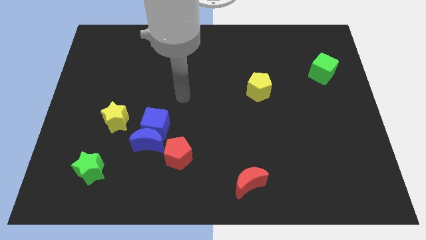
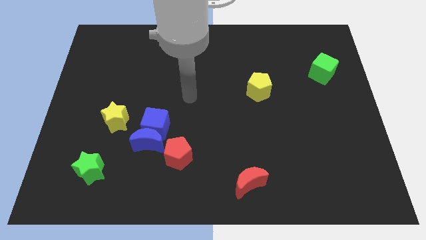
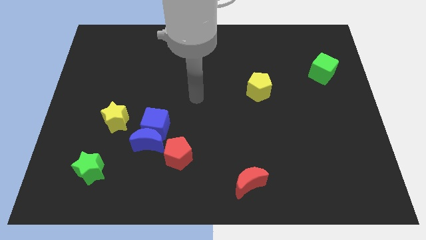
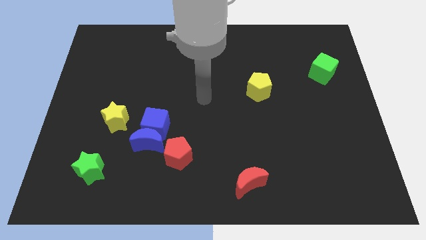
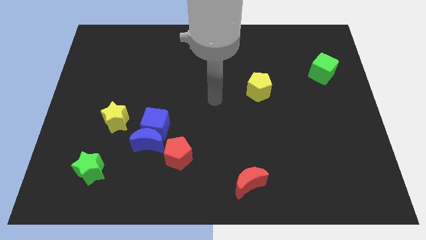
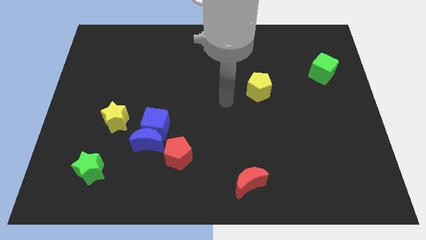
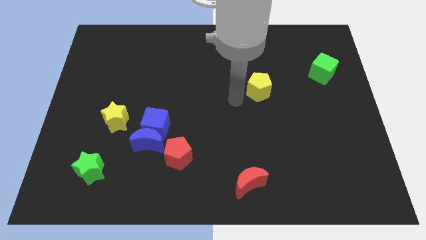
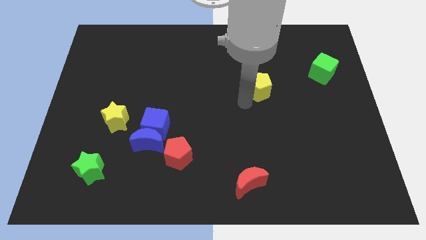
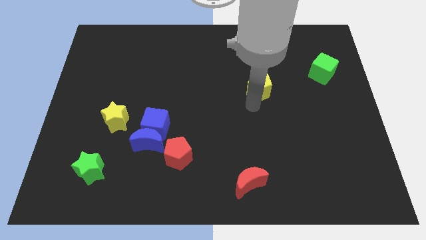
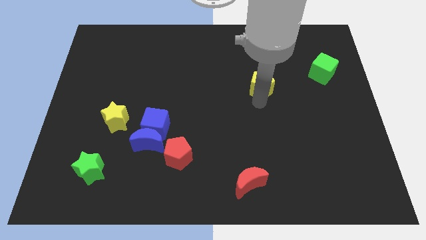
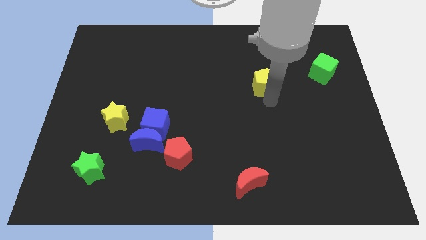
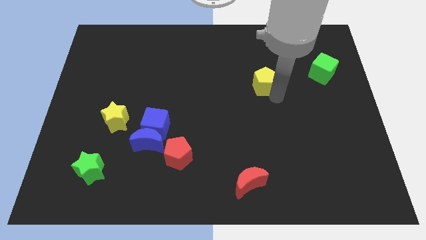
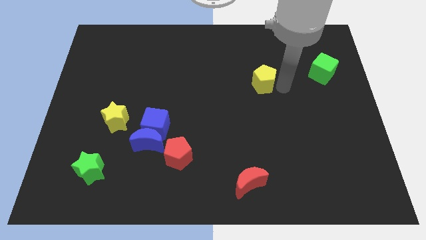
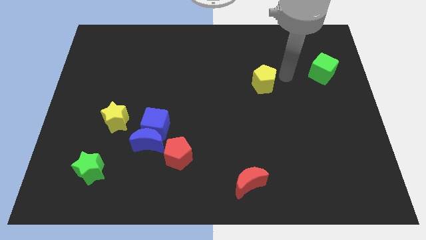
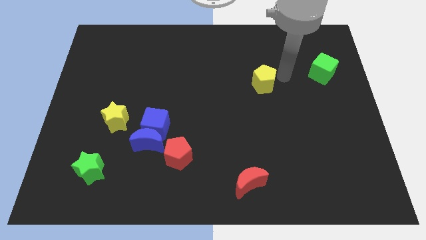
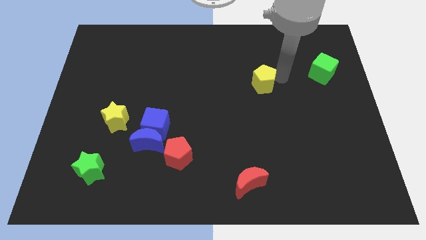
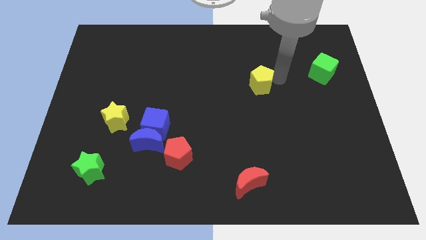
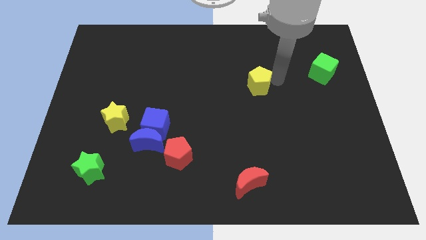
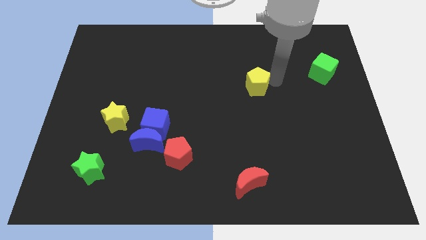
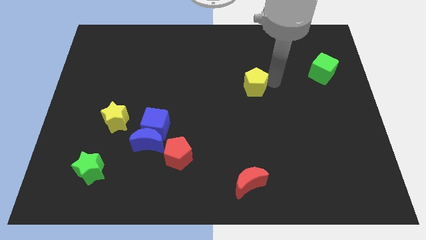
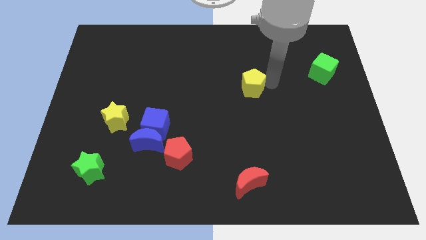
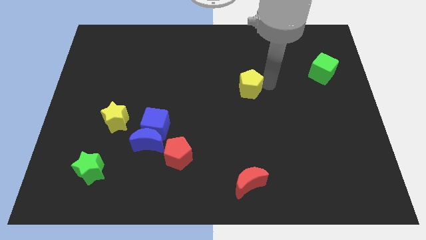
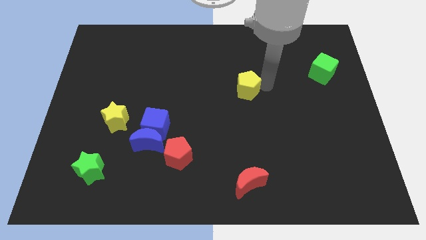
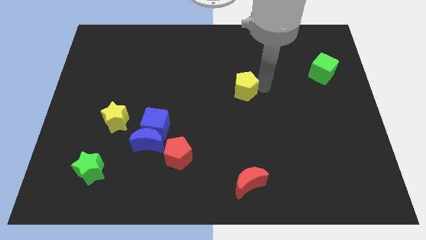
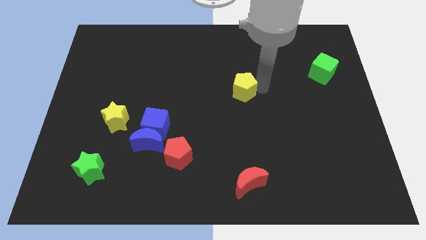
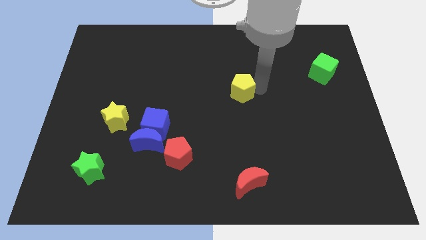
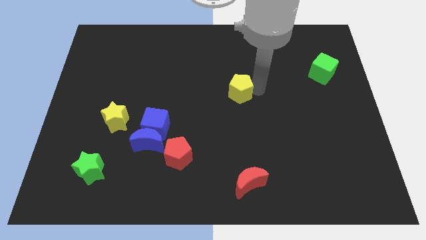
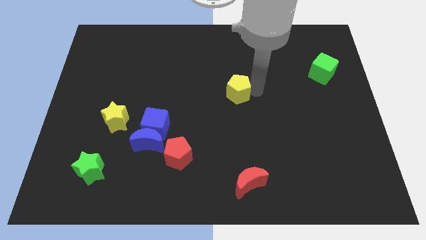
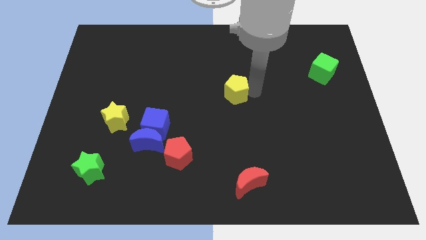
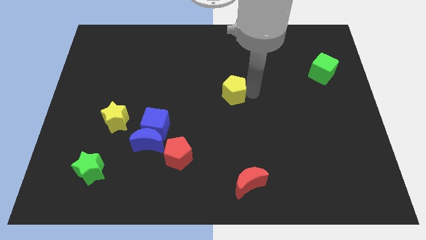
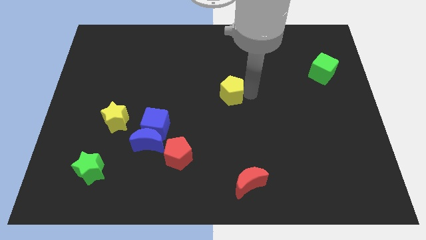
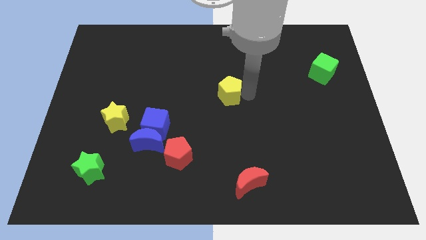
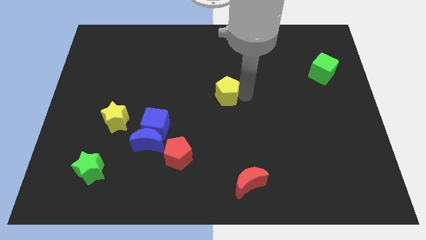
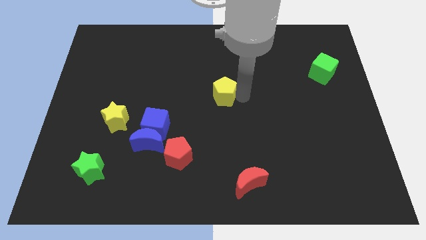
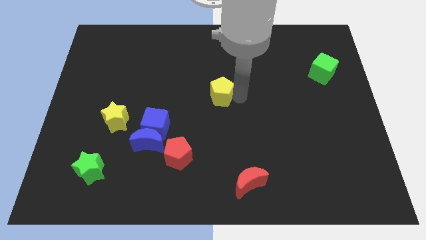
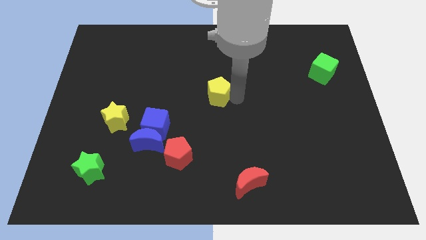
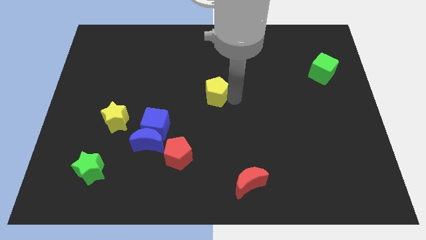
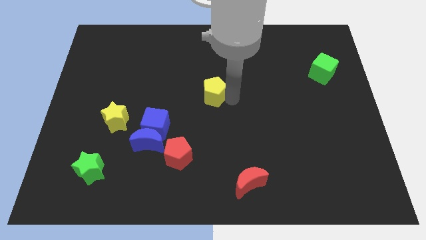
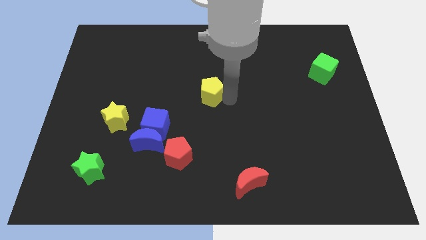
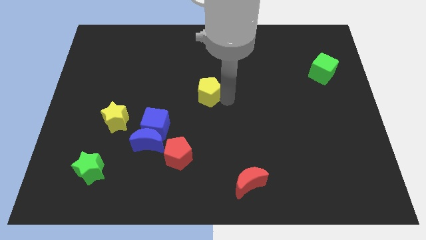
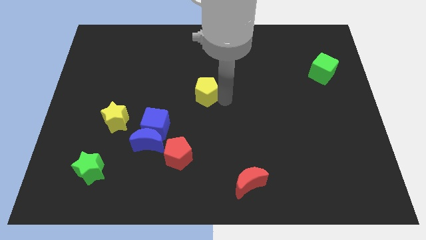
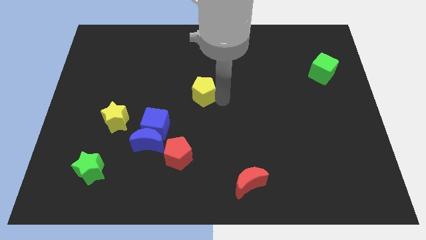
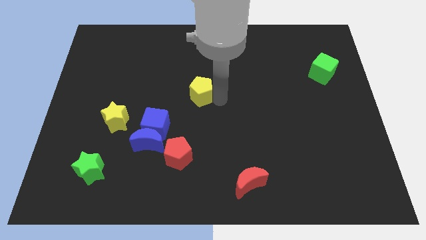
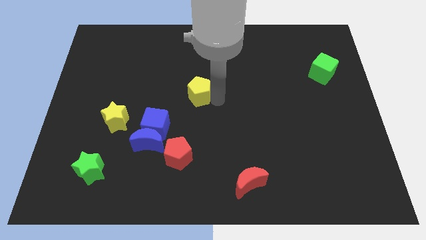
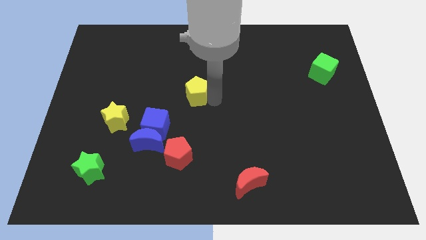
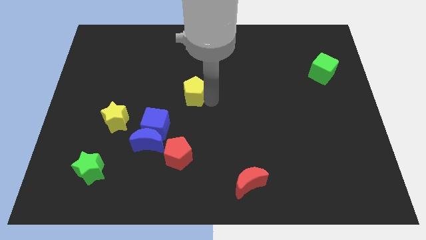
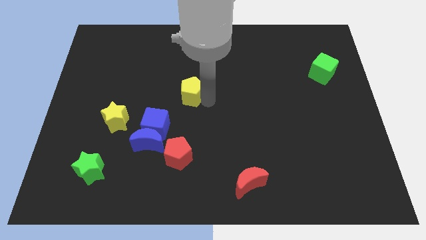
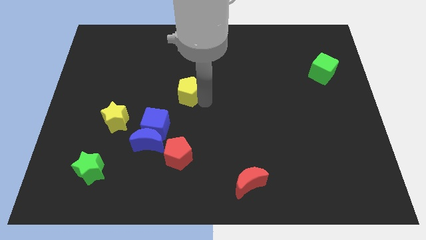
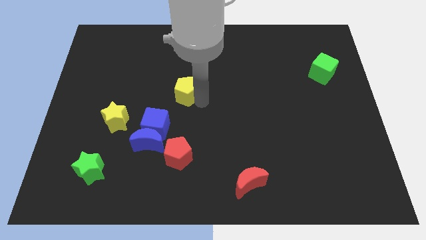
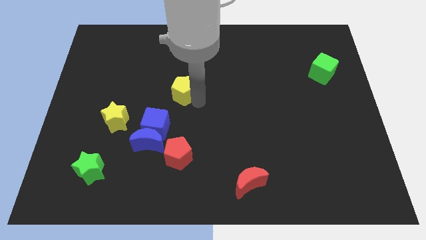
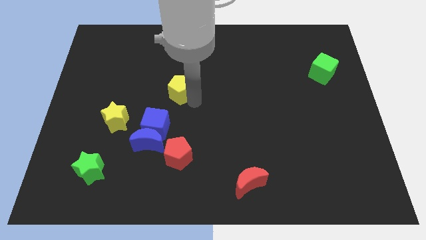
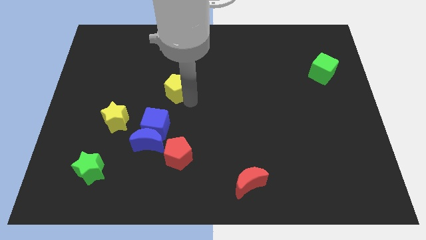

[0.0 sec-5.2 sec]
slide the yellow pentagon left

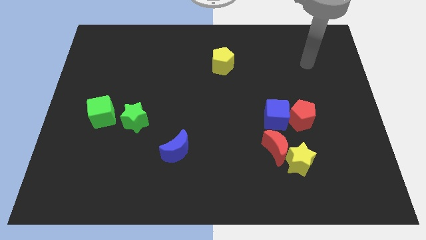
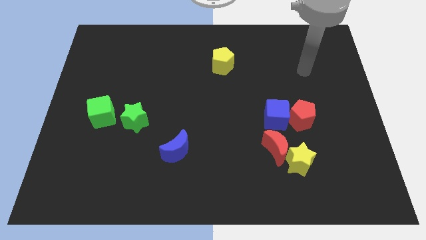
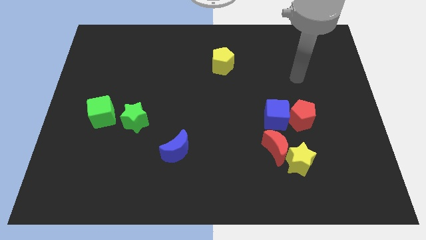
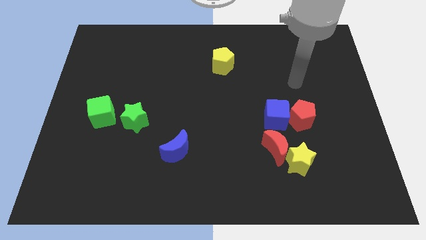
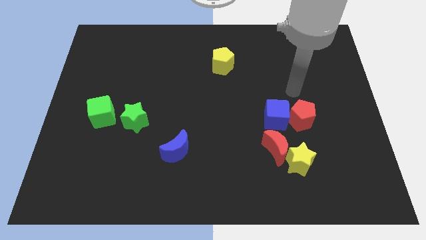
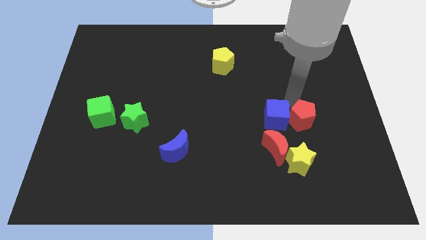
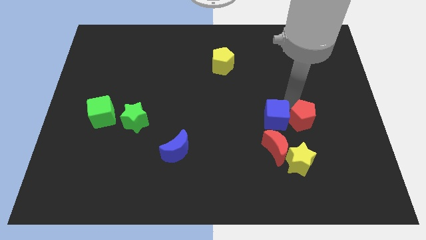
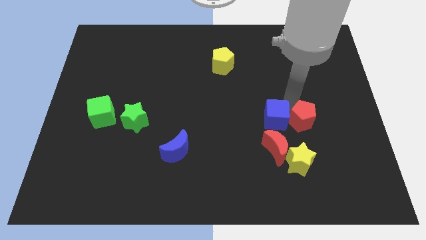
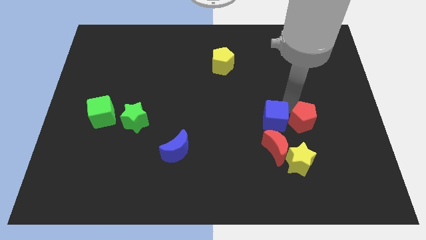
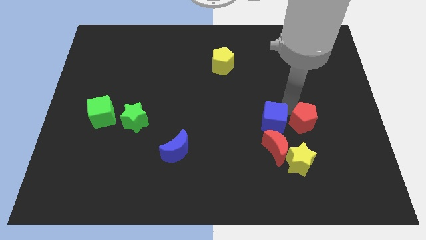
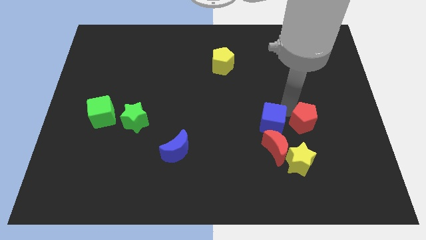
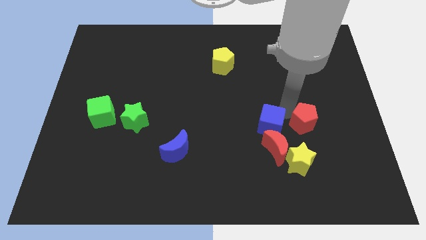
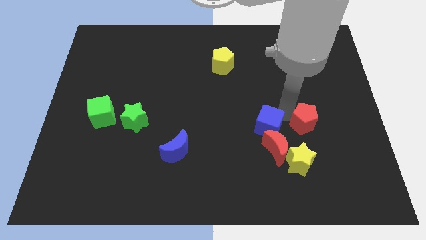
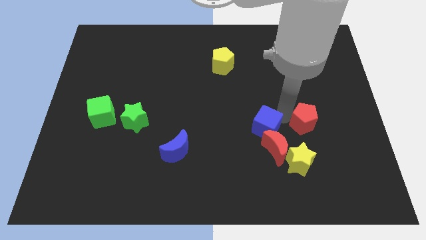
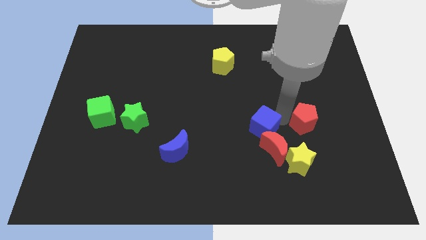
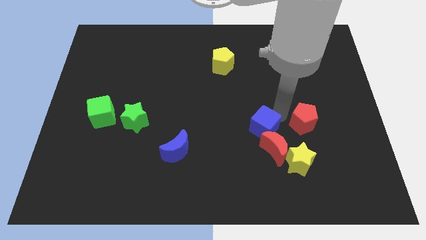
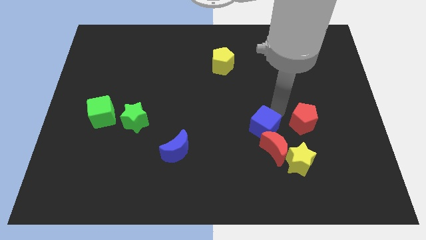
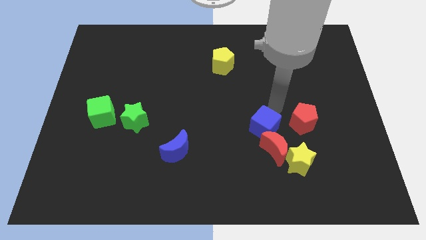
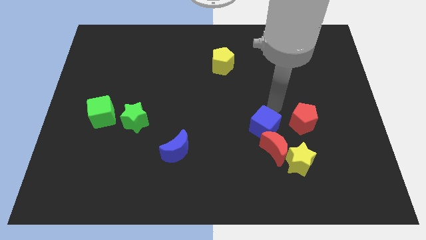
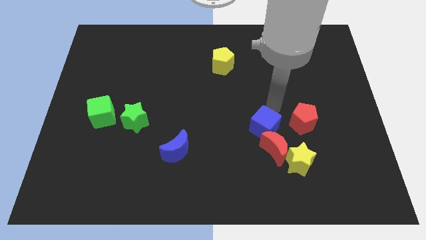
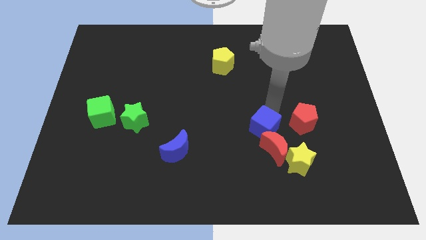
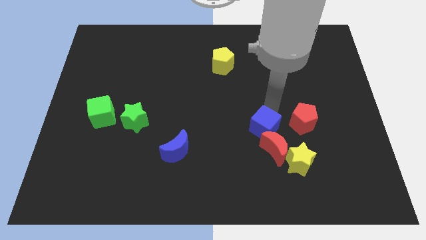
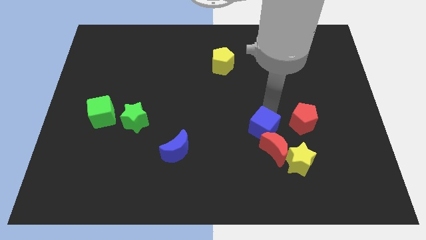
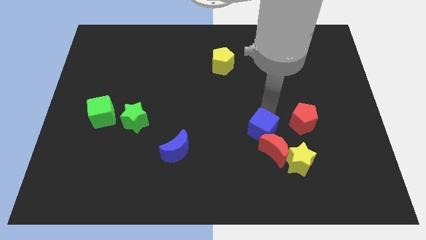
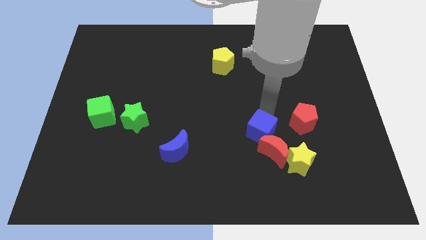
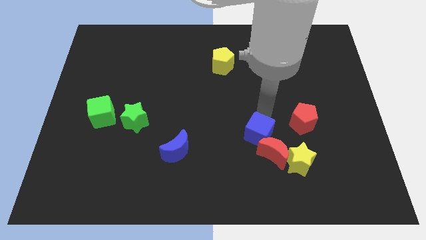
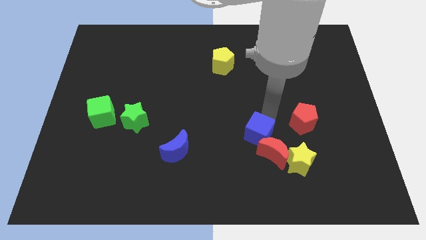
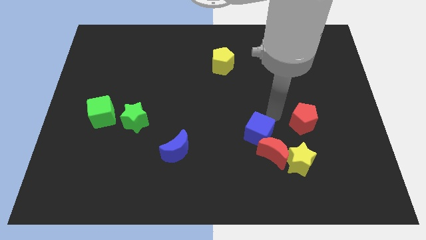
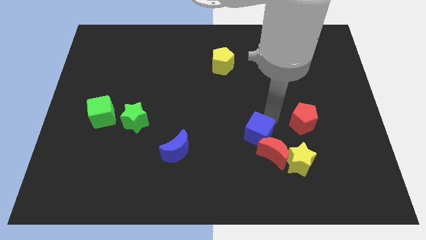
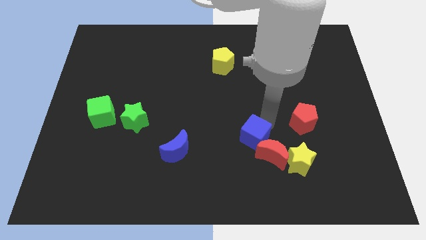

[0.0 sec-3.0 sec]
push the blue cube a bit downwards and to the left diagonally
